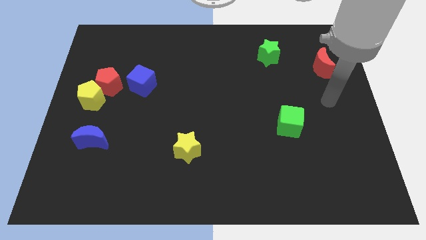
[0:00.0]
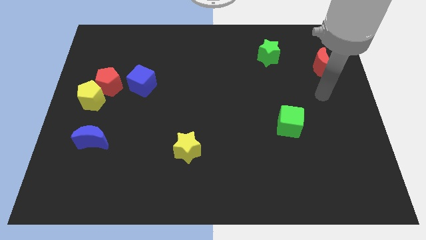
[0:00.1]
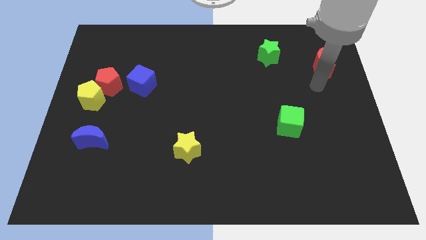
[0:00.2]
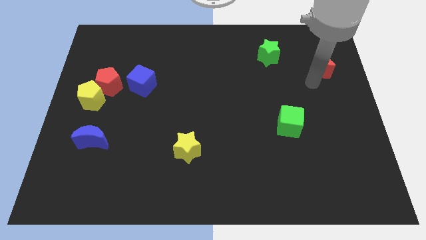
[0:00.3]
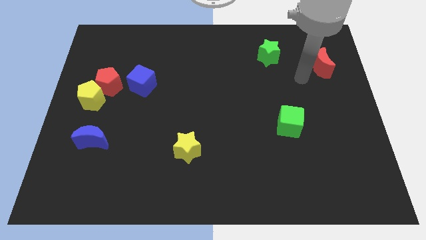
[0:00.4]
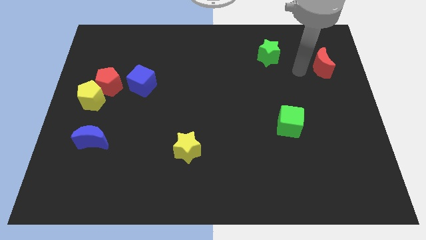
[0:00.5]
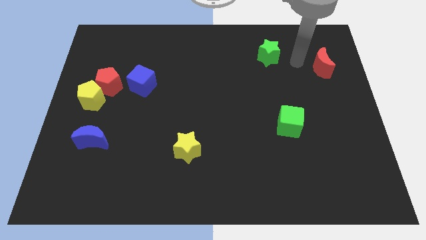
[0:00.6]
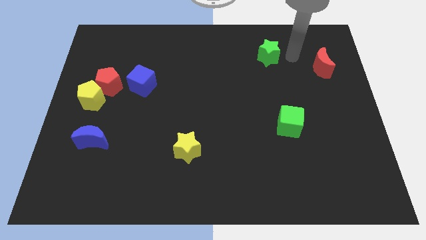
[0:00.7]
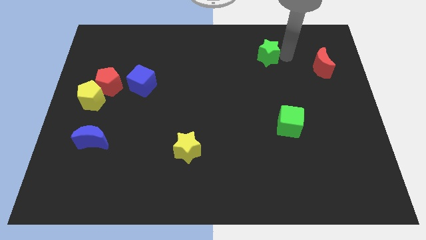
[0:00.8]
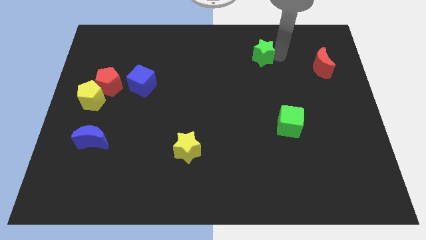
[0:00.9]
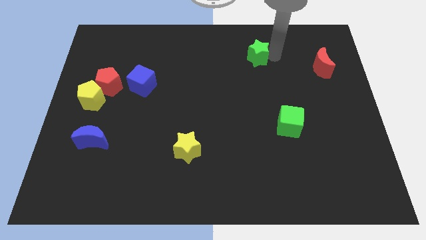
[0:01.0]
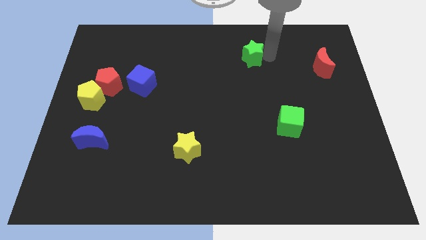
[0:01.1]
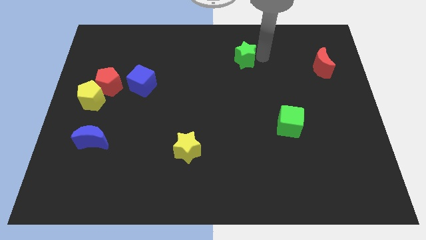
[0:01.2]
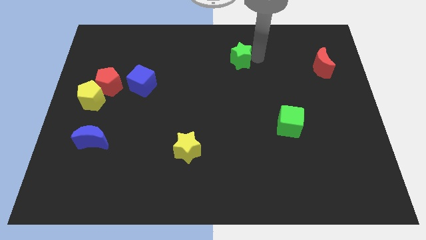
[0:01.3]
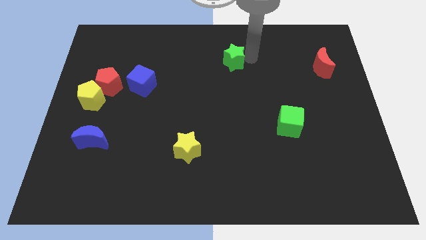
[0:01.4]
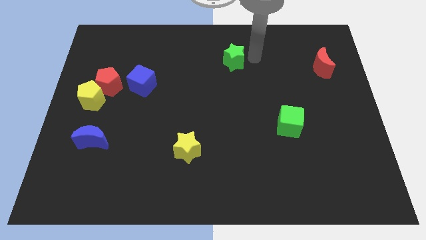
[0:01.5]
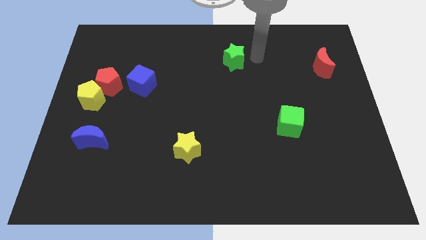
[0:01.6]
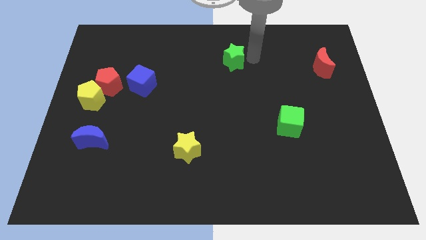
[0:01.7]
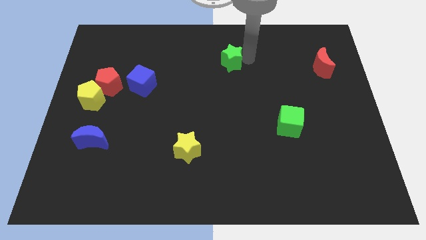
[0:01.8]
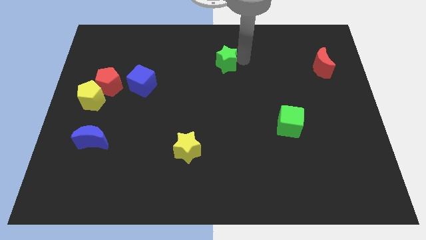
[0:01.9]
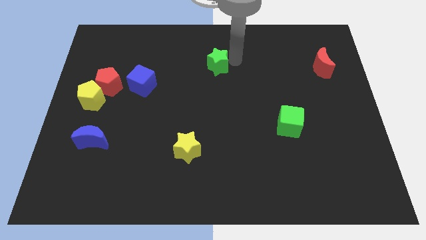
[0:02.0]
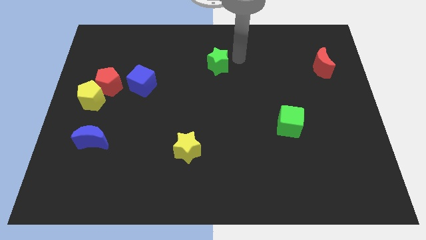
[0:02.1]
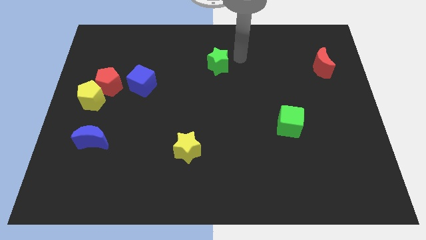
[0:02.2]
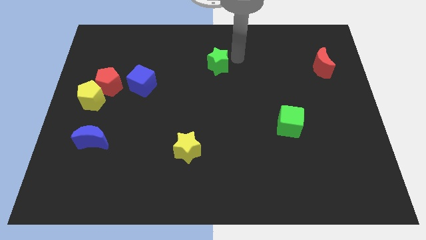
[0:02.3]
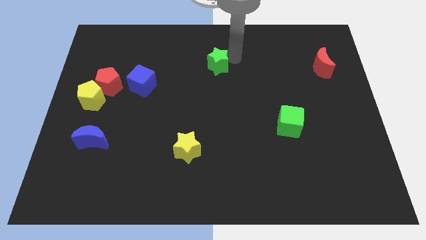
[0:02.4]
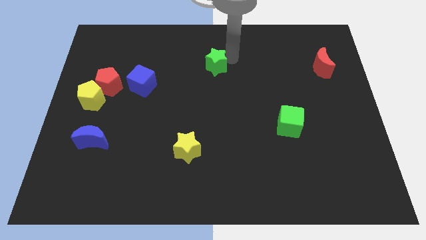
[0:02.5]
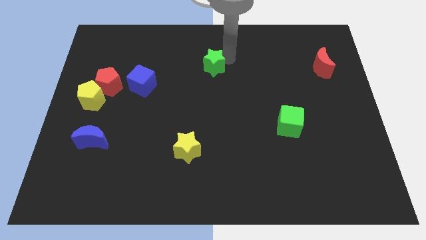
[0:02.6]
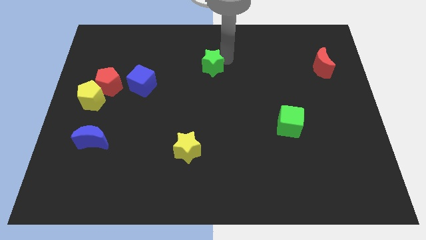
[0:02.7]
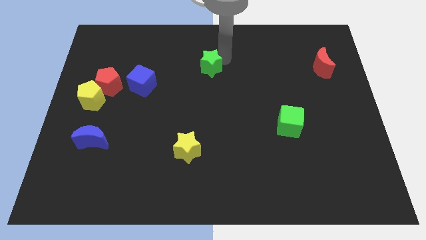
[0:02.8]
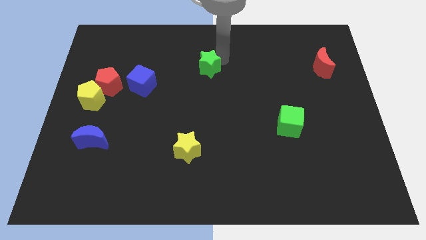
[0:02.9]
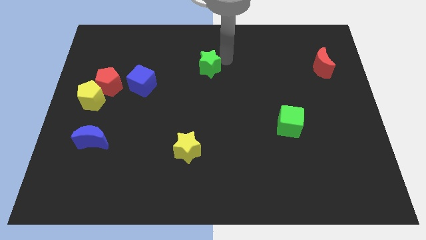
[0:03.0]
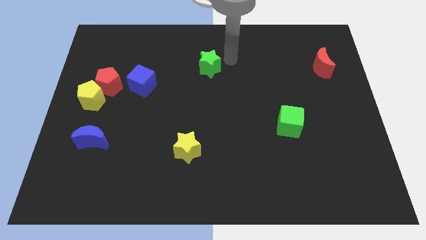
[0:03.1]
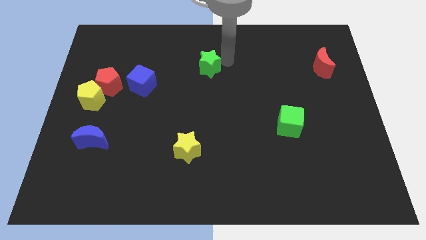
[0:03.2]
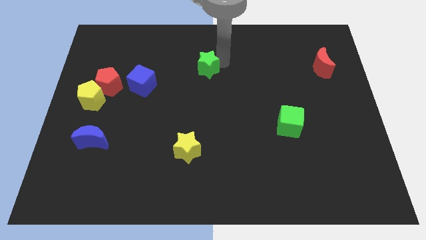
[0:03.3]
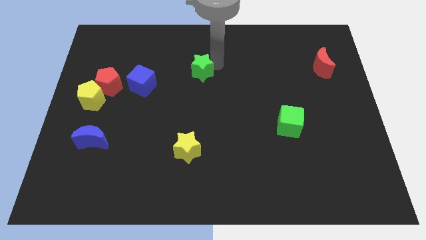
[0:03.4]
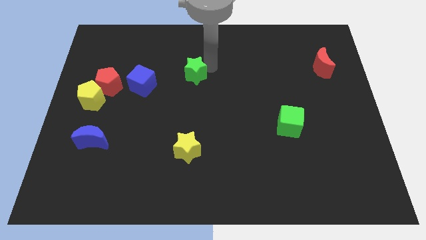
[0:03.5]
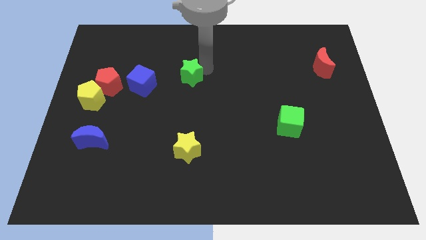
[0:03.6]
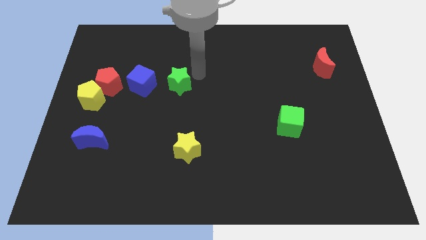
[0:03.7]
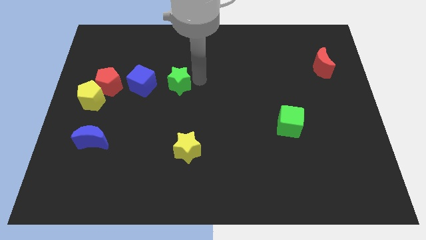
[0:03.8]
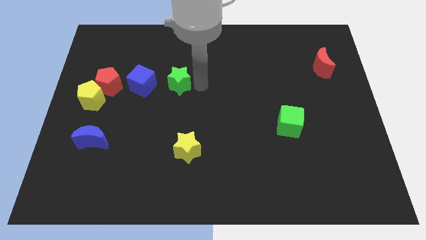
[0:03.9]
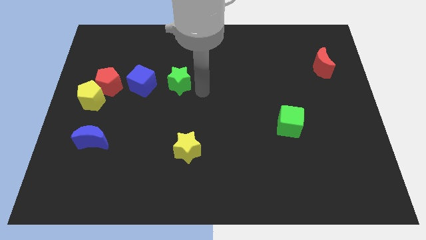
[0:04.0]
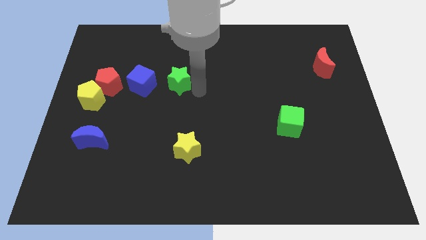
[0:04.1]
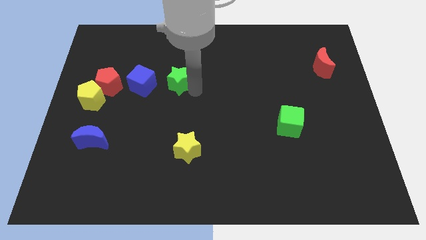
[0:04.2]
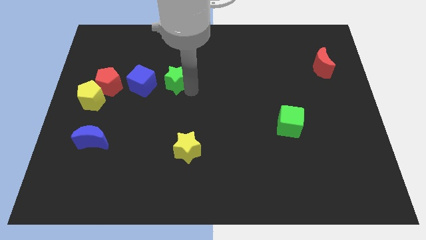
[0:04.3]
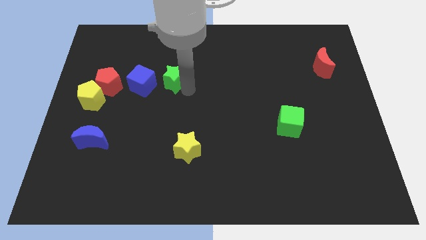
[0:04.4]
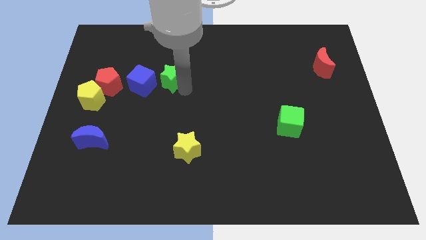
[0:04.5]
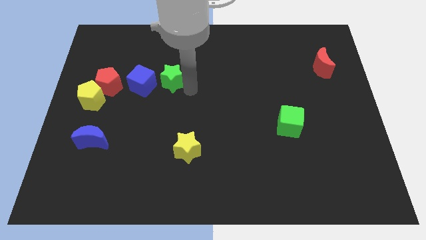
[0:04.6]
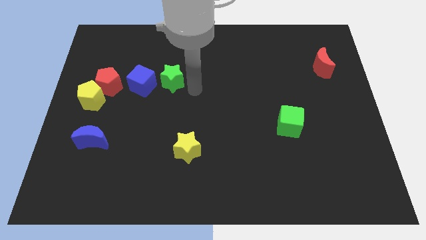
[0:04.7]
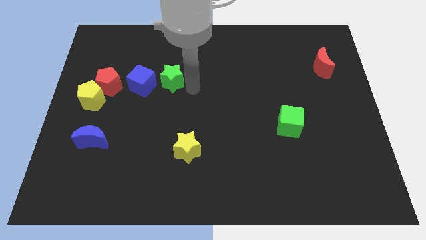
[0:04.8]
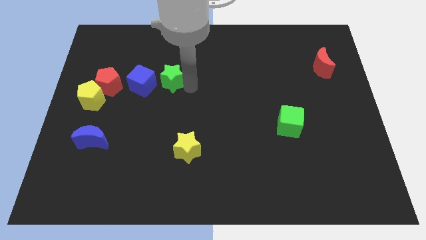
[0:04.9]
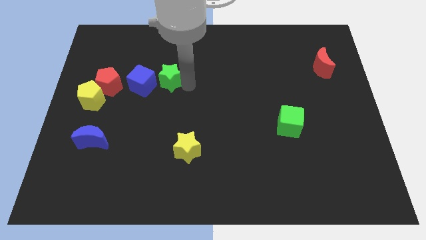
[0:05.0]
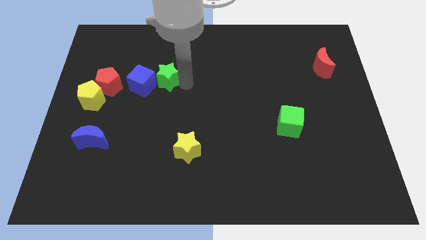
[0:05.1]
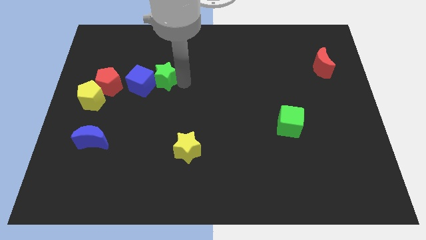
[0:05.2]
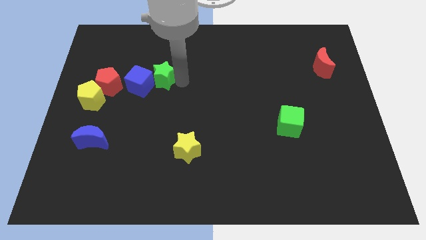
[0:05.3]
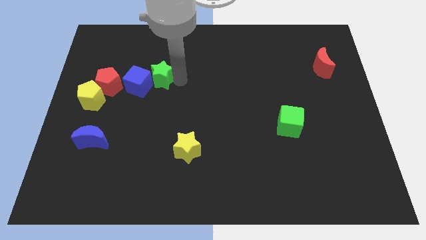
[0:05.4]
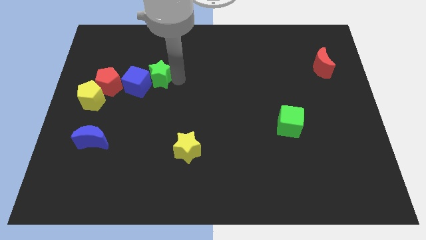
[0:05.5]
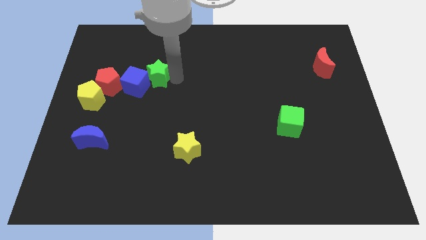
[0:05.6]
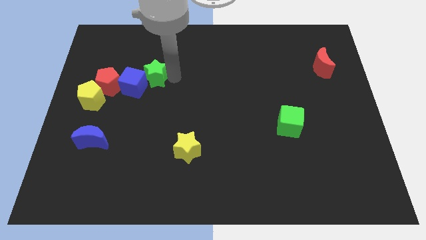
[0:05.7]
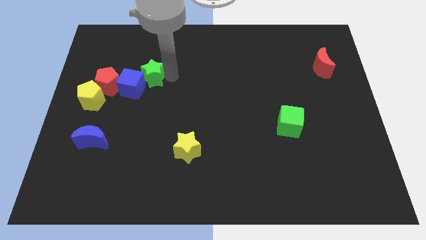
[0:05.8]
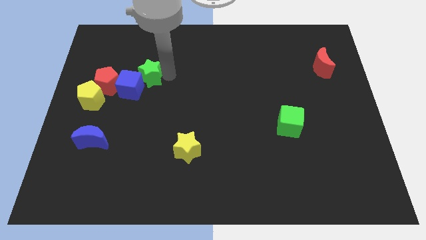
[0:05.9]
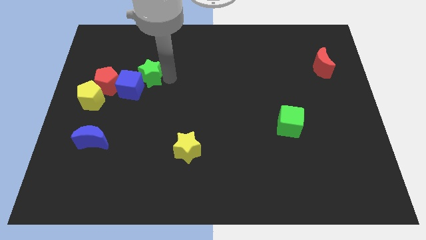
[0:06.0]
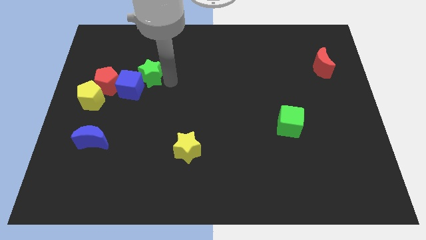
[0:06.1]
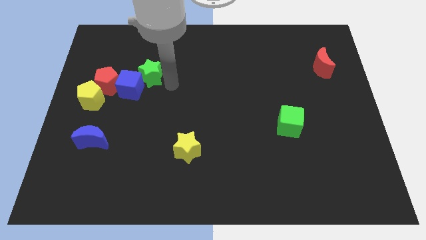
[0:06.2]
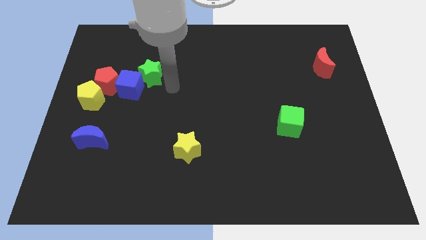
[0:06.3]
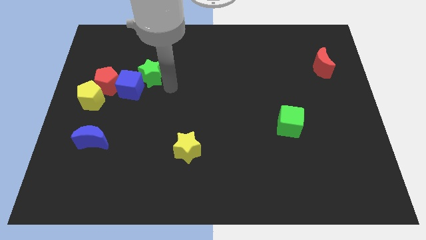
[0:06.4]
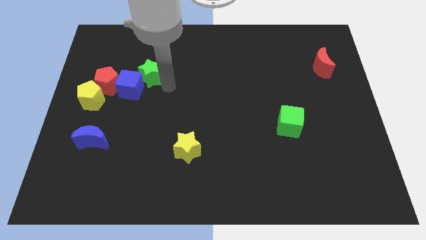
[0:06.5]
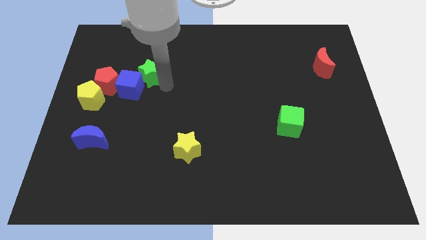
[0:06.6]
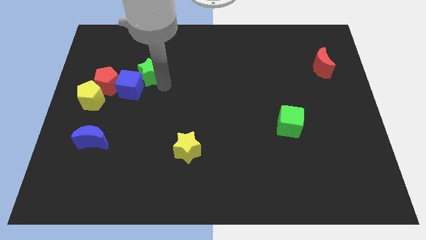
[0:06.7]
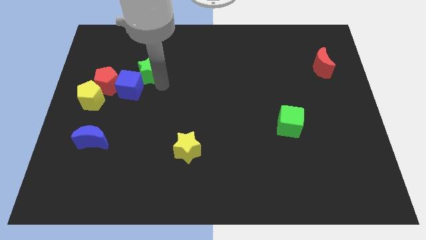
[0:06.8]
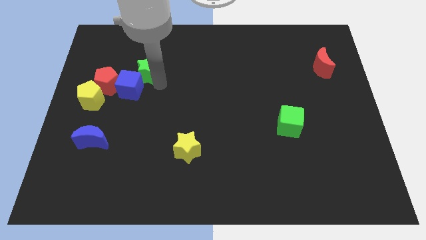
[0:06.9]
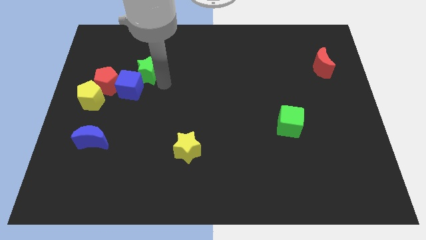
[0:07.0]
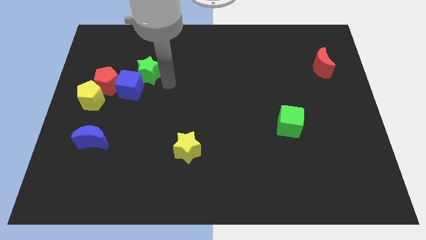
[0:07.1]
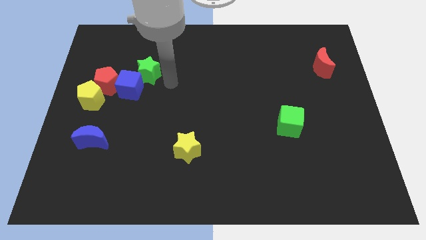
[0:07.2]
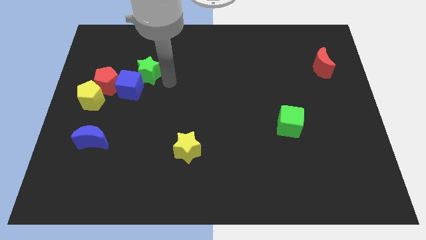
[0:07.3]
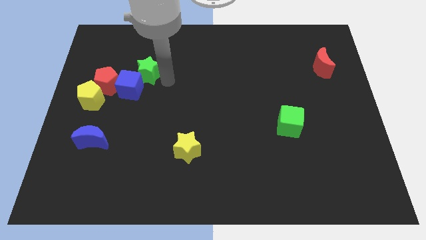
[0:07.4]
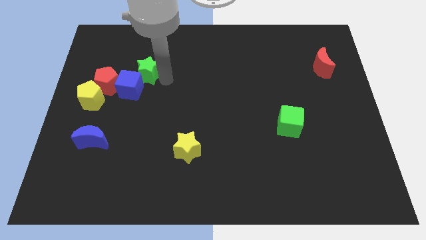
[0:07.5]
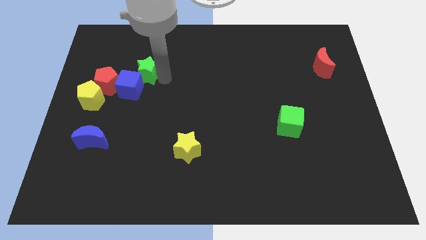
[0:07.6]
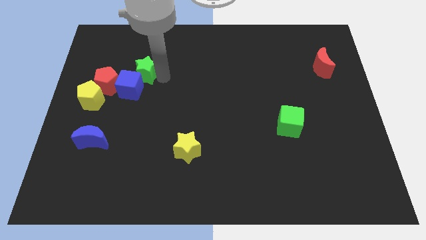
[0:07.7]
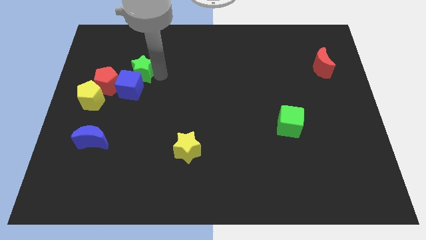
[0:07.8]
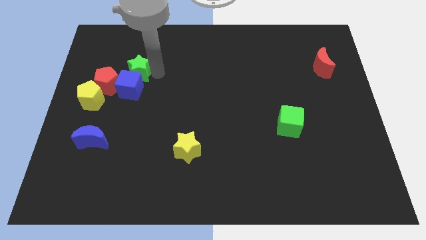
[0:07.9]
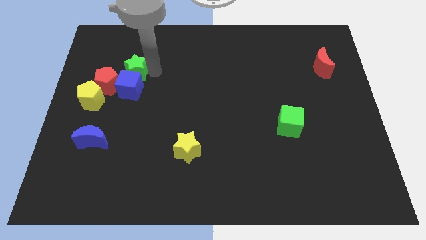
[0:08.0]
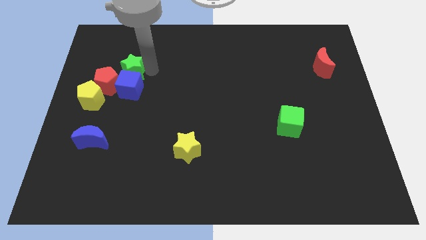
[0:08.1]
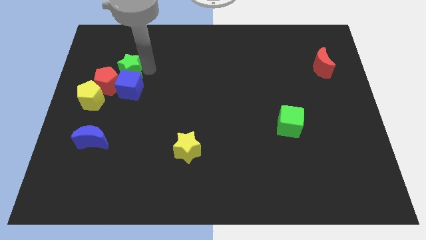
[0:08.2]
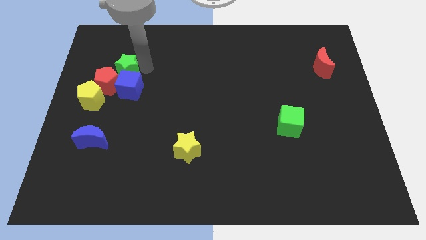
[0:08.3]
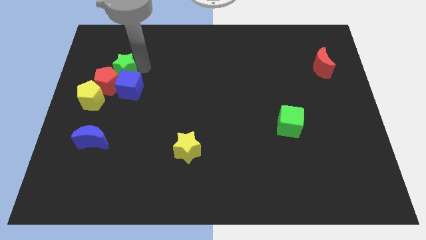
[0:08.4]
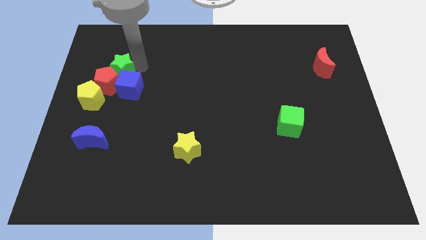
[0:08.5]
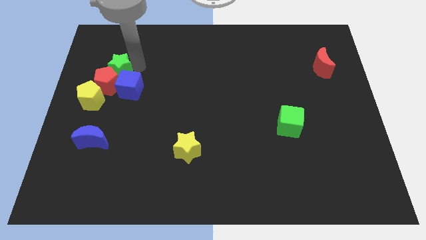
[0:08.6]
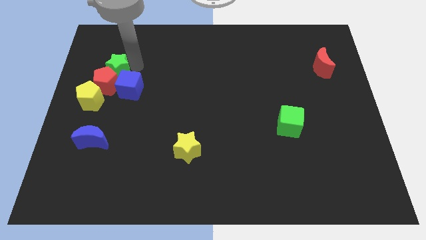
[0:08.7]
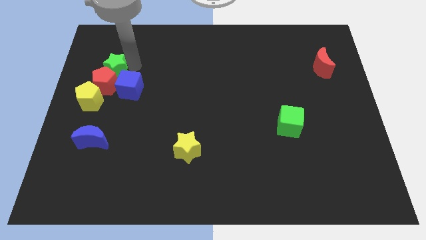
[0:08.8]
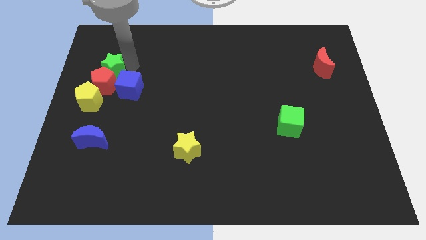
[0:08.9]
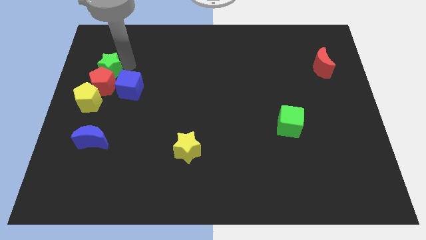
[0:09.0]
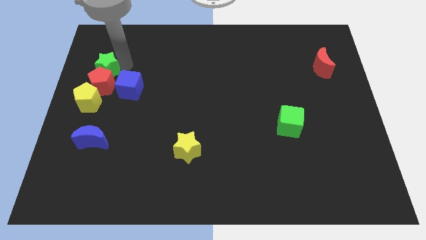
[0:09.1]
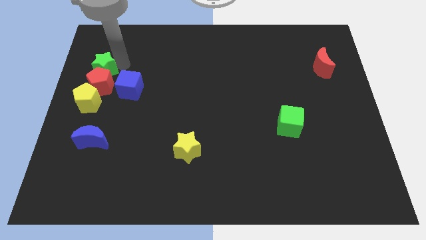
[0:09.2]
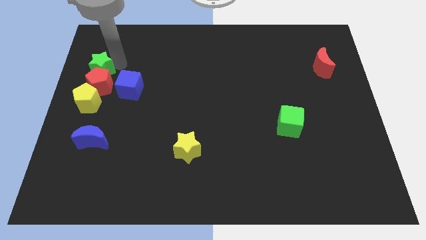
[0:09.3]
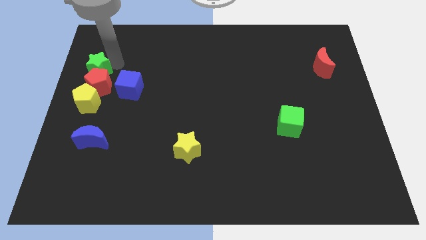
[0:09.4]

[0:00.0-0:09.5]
move the green star to the left side
